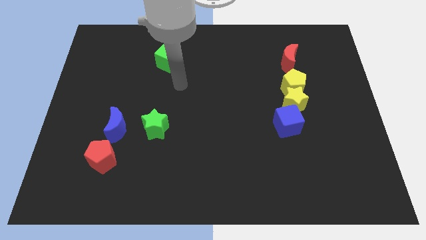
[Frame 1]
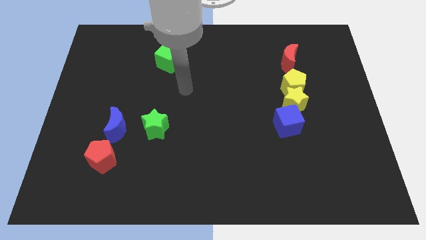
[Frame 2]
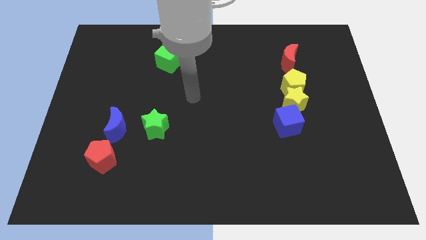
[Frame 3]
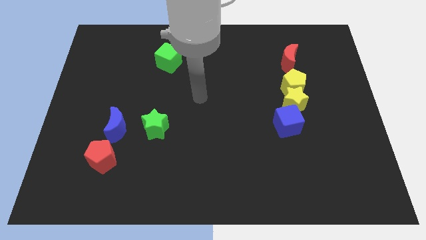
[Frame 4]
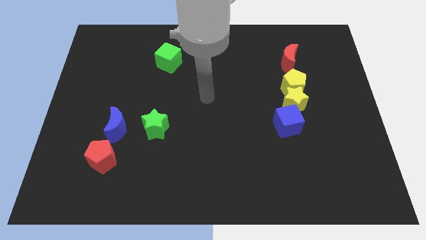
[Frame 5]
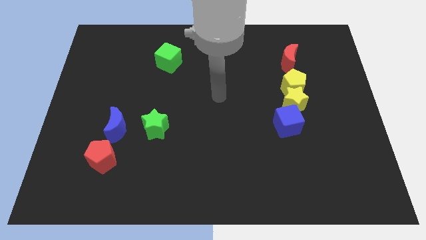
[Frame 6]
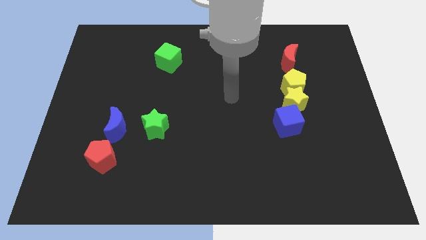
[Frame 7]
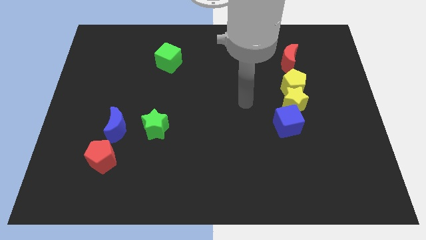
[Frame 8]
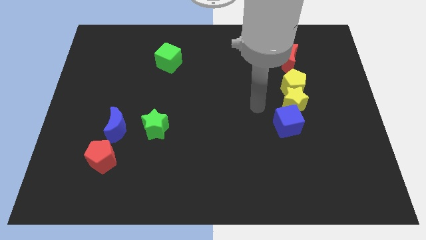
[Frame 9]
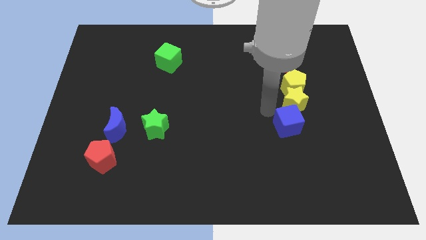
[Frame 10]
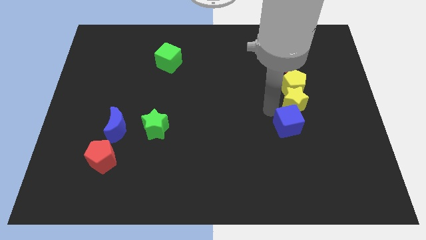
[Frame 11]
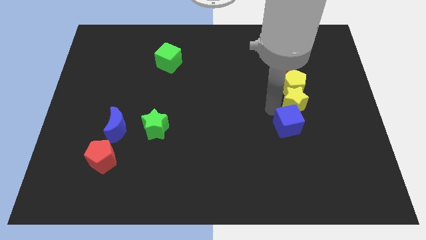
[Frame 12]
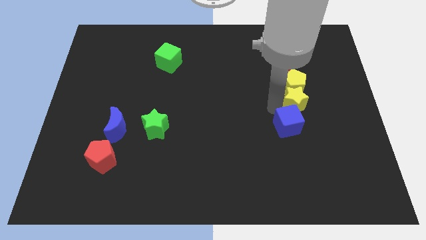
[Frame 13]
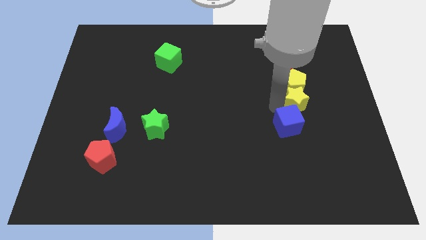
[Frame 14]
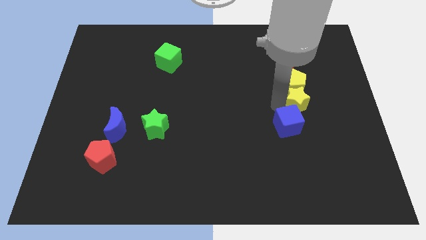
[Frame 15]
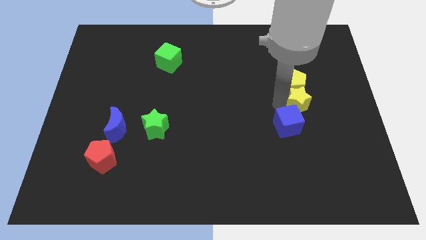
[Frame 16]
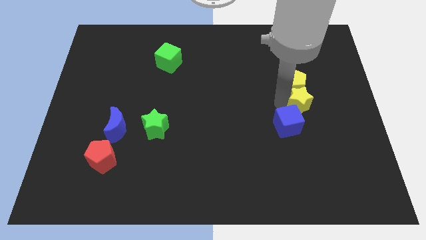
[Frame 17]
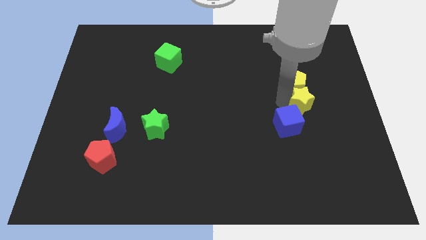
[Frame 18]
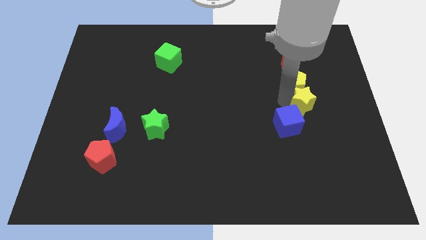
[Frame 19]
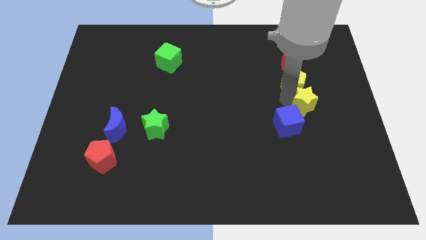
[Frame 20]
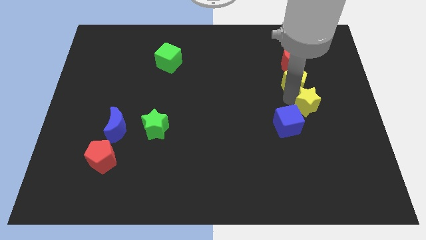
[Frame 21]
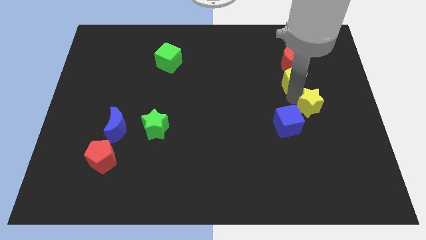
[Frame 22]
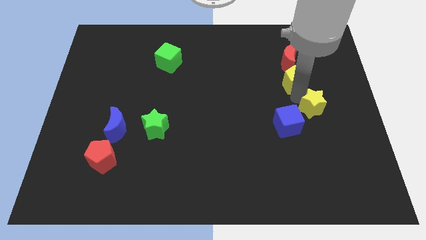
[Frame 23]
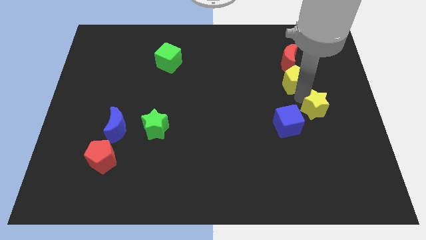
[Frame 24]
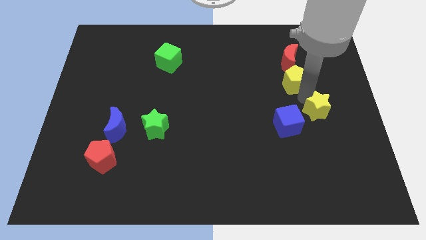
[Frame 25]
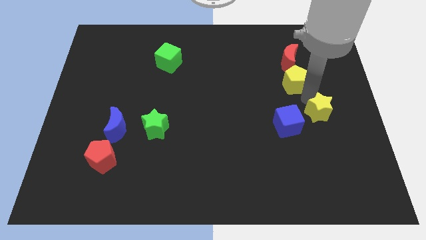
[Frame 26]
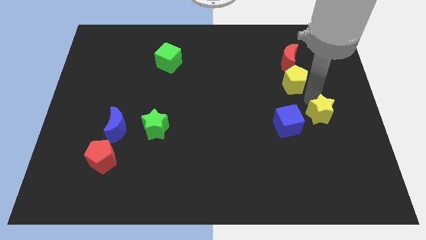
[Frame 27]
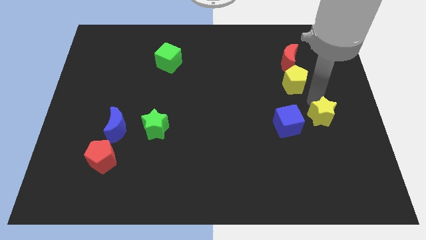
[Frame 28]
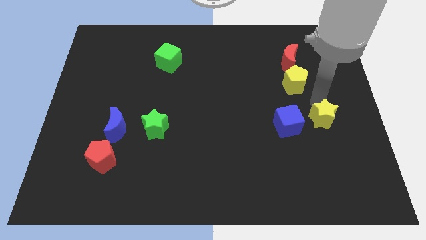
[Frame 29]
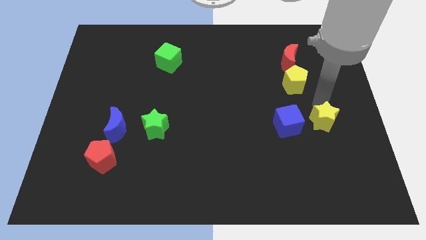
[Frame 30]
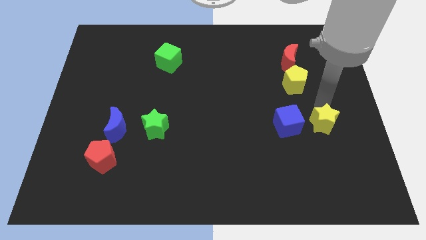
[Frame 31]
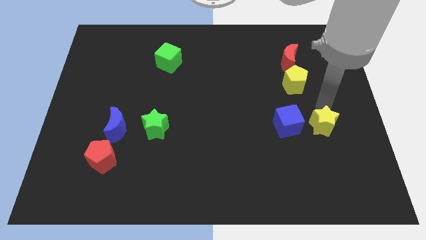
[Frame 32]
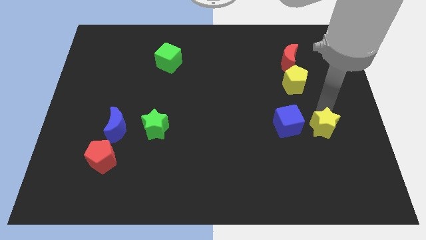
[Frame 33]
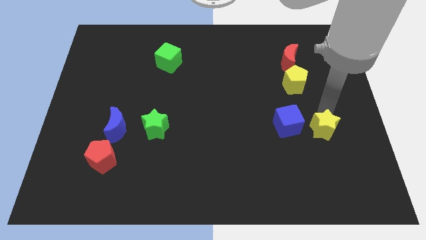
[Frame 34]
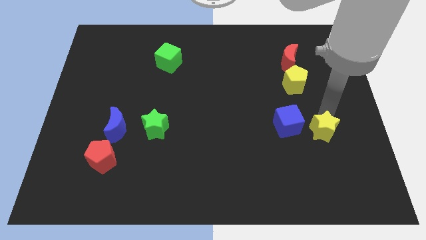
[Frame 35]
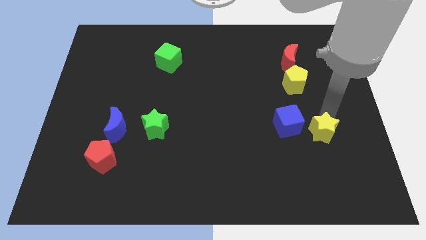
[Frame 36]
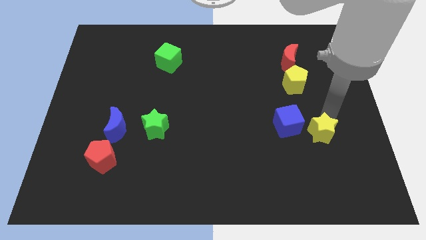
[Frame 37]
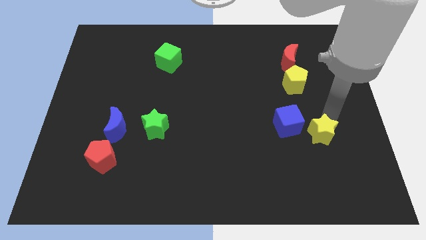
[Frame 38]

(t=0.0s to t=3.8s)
pull the yellow star apart from the yellow pentagon and blue cube

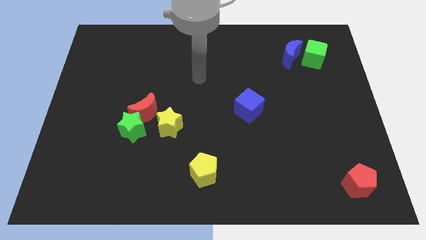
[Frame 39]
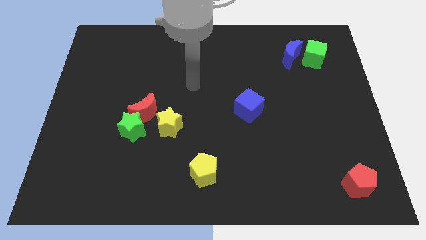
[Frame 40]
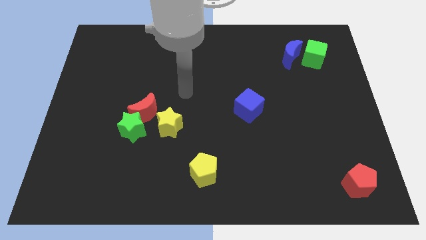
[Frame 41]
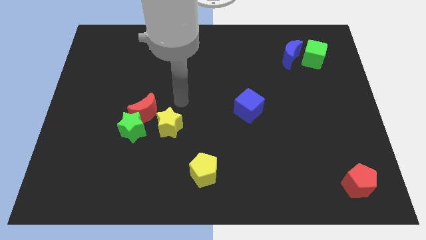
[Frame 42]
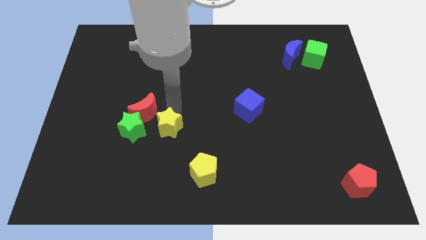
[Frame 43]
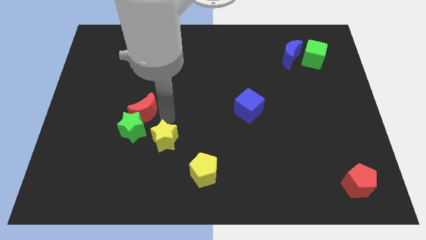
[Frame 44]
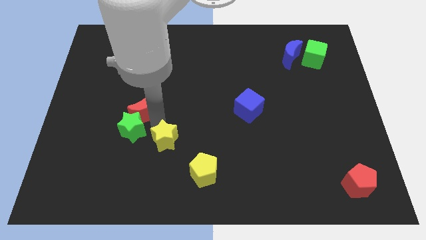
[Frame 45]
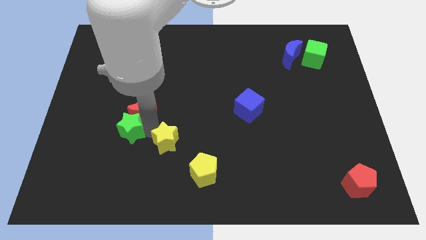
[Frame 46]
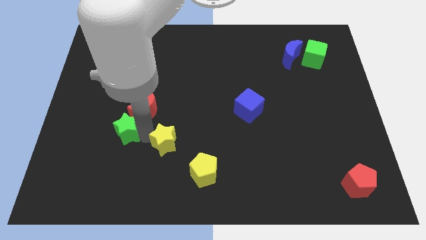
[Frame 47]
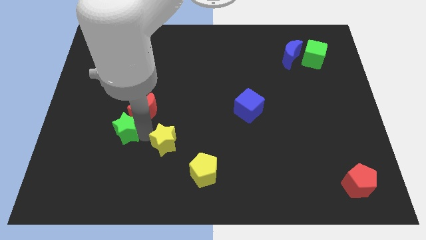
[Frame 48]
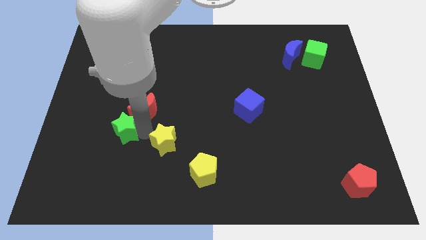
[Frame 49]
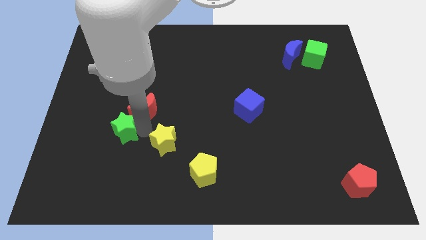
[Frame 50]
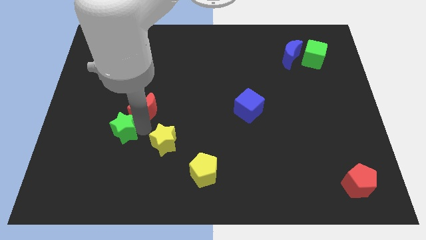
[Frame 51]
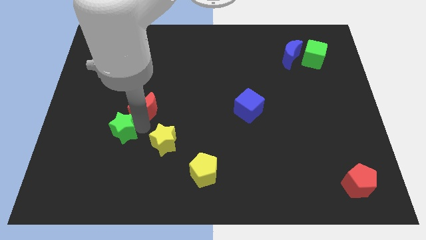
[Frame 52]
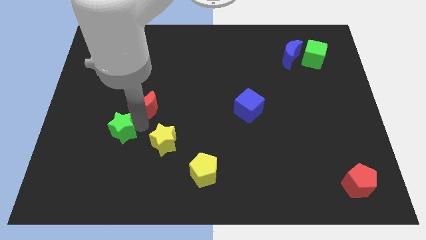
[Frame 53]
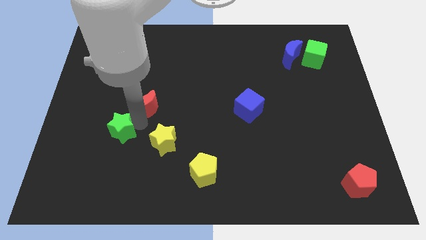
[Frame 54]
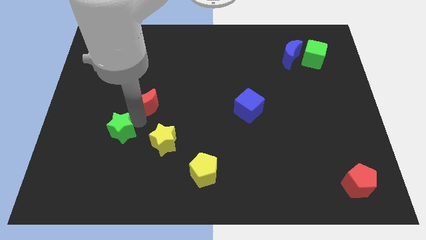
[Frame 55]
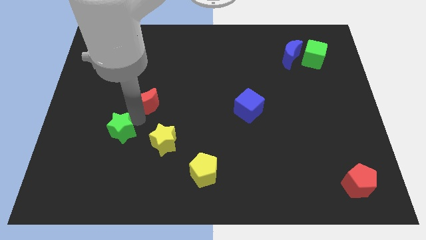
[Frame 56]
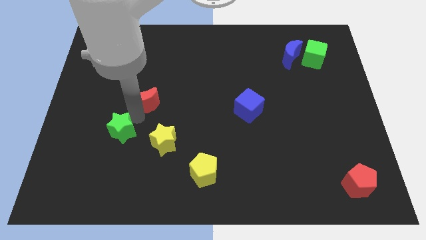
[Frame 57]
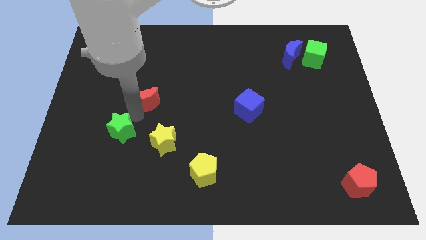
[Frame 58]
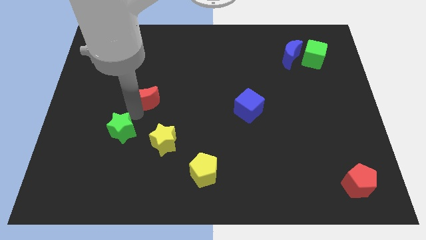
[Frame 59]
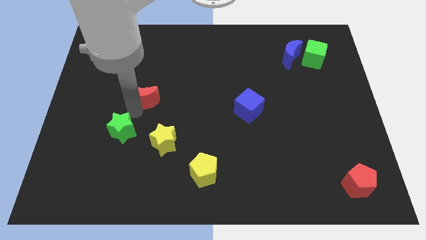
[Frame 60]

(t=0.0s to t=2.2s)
pull the red moon apart from the green star and yellow star

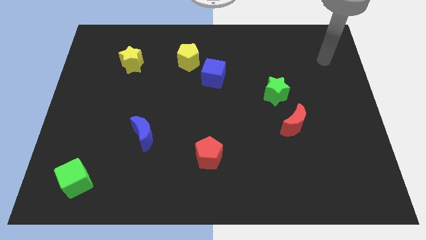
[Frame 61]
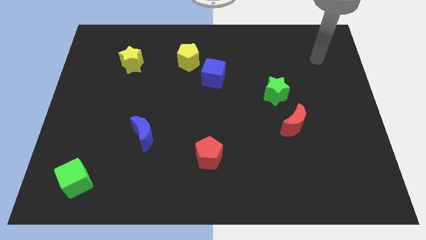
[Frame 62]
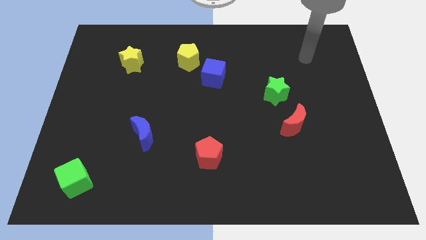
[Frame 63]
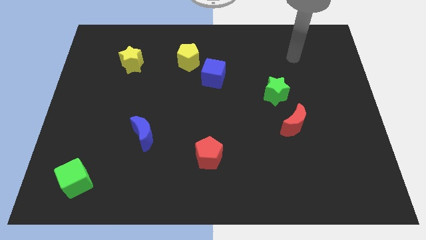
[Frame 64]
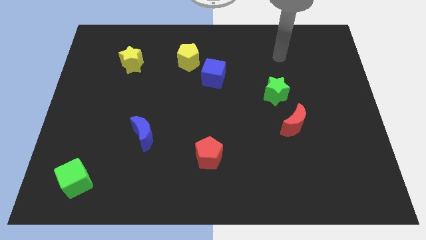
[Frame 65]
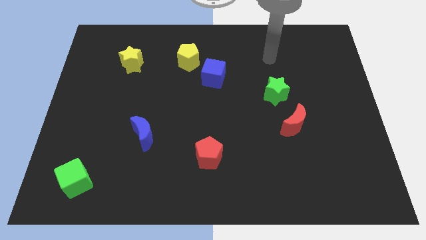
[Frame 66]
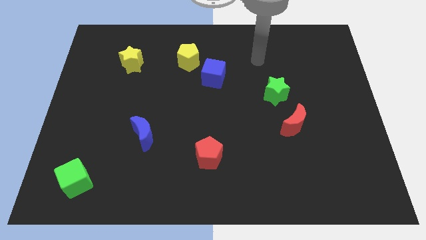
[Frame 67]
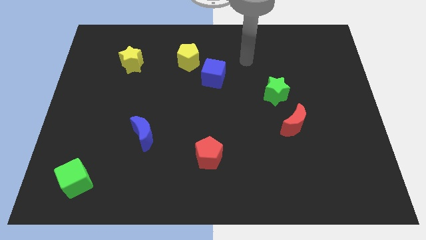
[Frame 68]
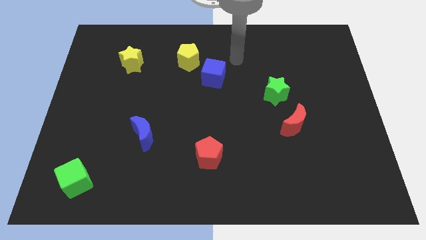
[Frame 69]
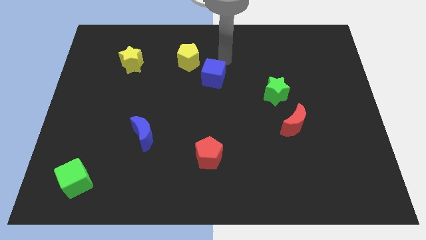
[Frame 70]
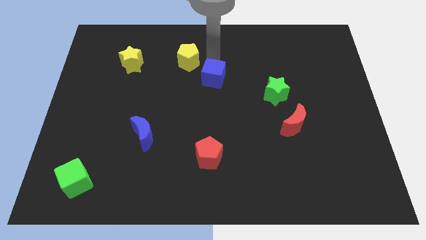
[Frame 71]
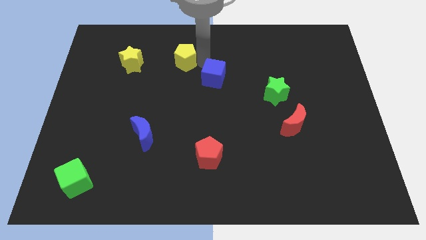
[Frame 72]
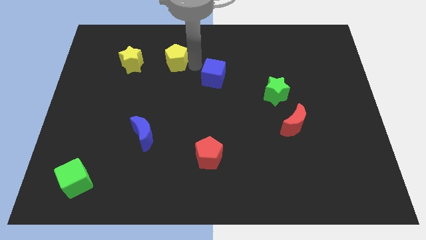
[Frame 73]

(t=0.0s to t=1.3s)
separate the blue cube from the yellow pentagon

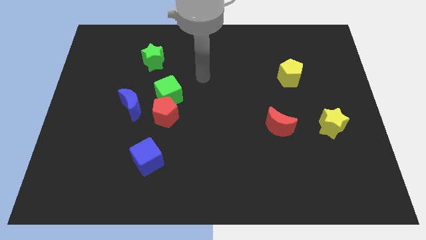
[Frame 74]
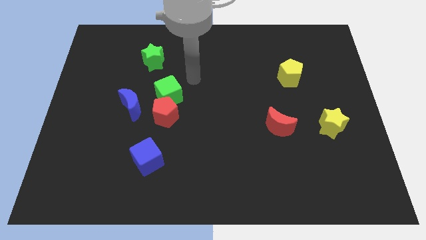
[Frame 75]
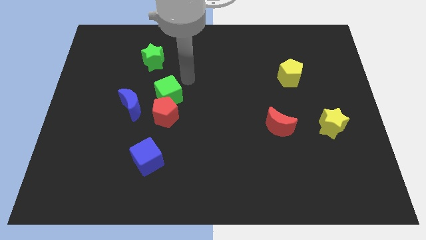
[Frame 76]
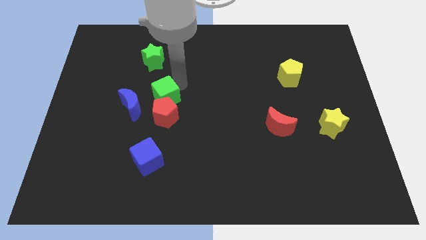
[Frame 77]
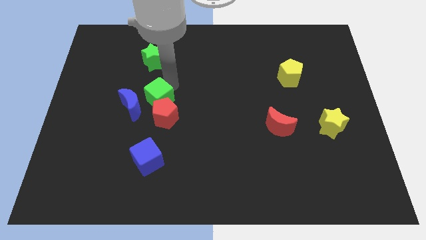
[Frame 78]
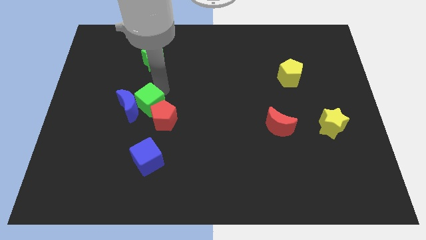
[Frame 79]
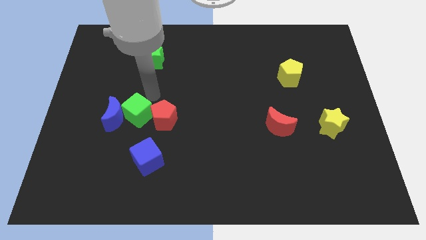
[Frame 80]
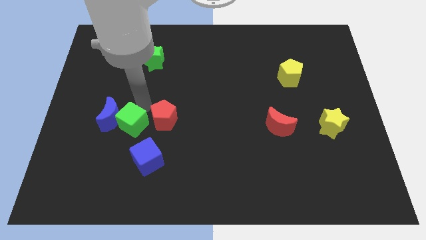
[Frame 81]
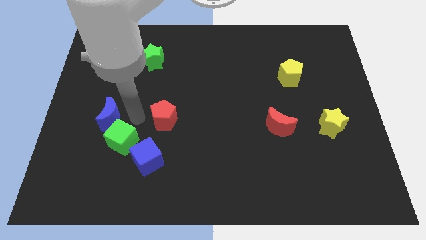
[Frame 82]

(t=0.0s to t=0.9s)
pull the red pentagon apart from the green cube and blue moon

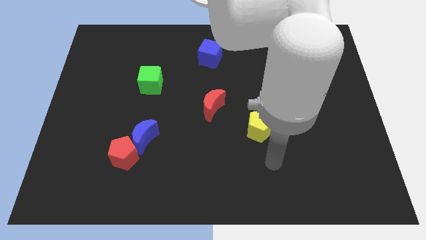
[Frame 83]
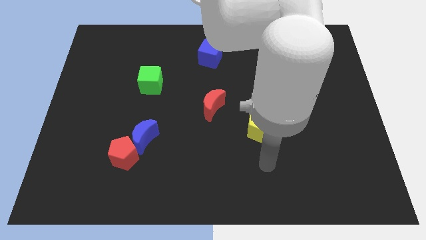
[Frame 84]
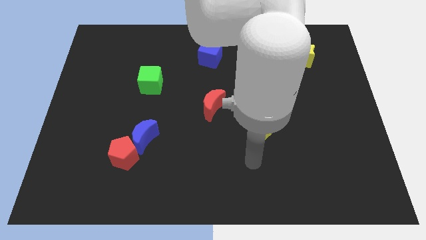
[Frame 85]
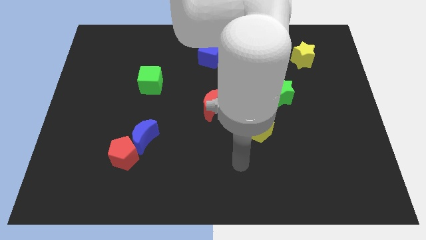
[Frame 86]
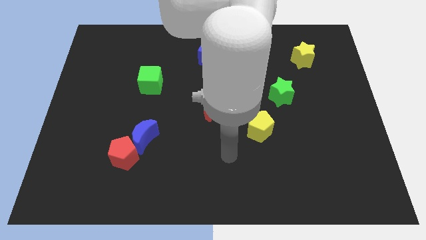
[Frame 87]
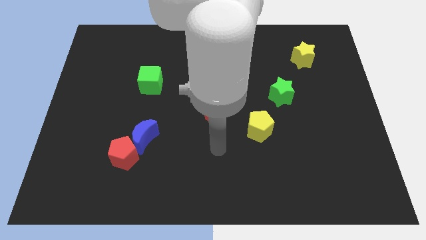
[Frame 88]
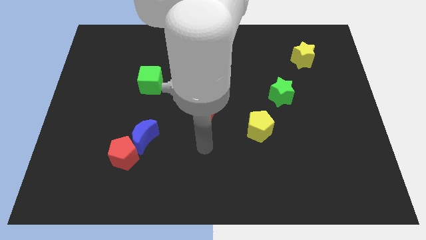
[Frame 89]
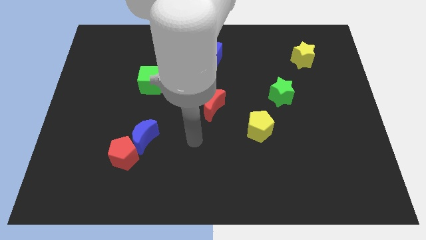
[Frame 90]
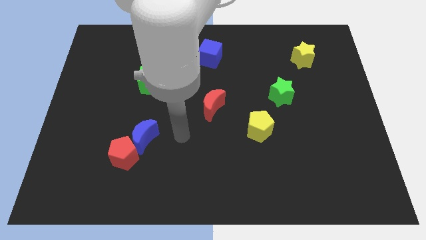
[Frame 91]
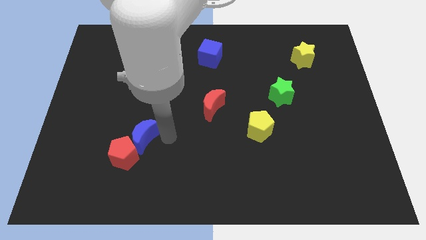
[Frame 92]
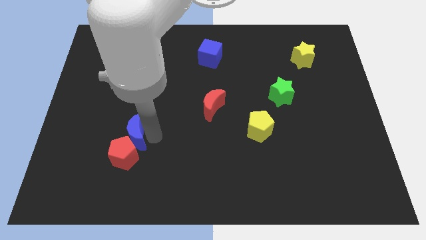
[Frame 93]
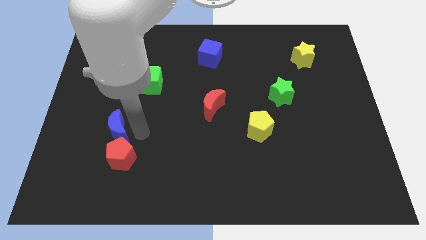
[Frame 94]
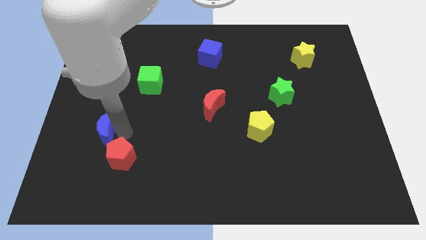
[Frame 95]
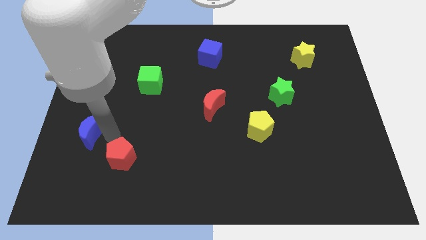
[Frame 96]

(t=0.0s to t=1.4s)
move the red pentagon away from the blue moon
